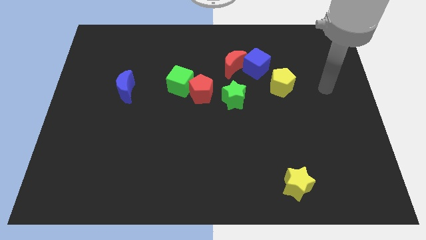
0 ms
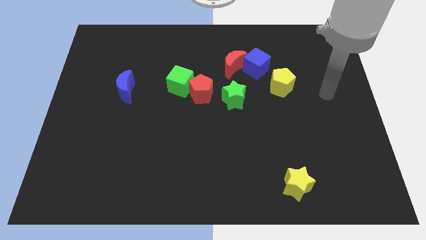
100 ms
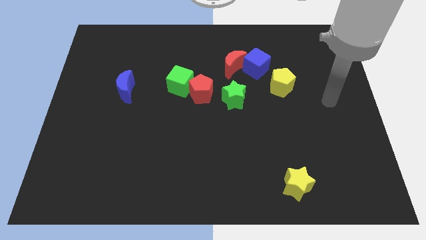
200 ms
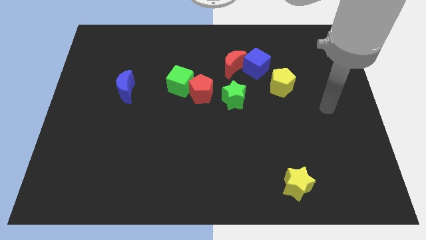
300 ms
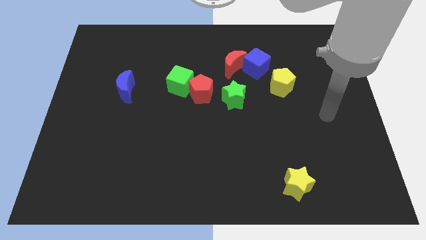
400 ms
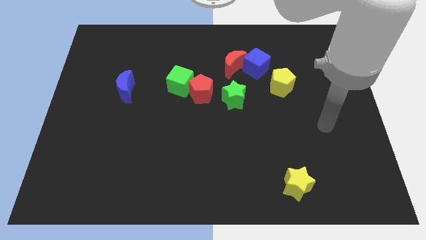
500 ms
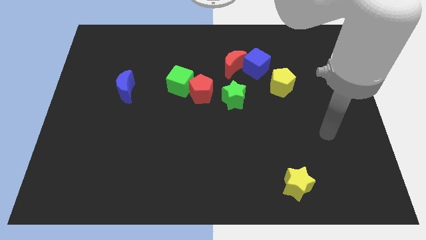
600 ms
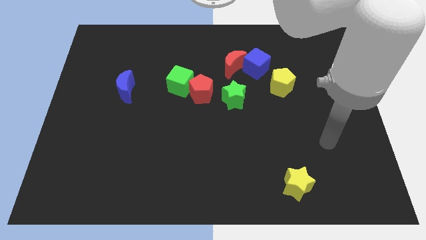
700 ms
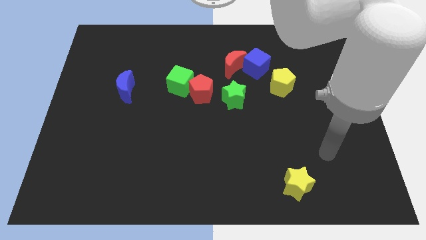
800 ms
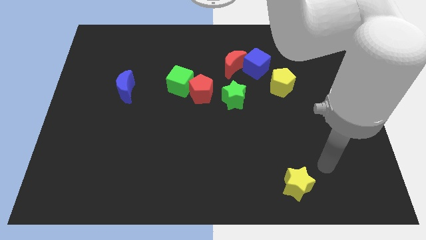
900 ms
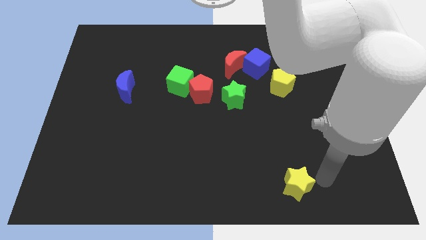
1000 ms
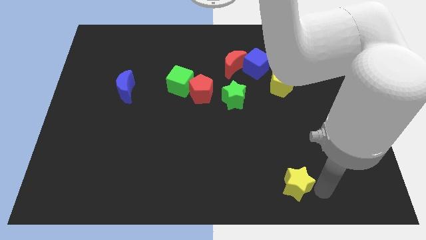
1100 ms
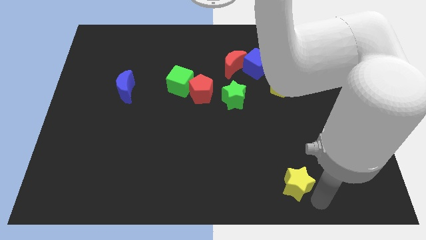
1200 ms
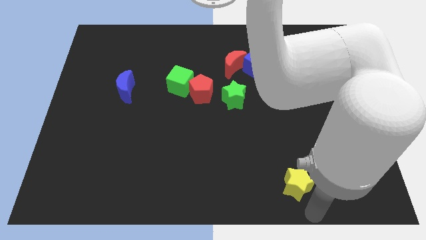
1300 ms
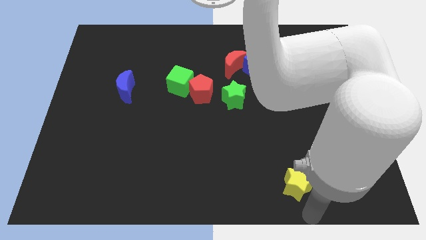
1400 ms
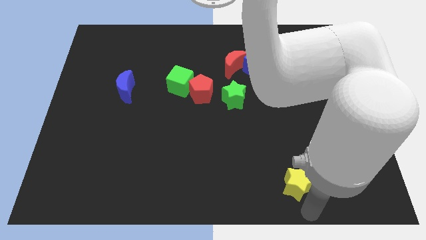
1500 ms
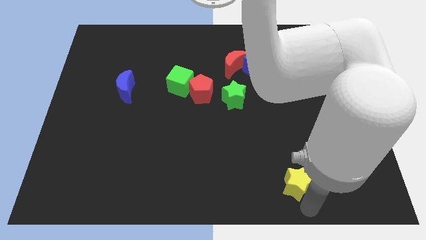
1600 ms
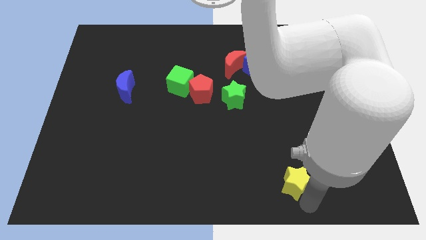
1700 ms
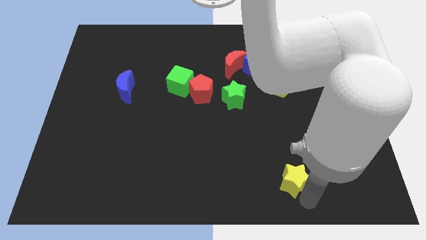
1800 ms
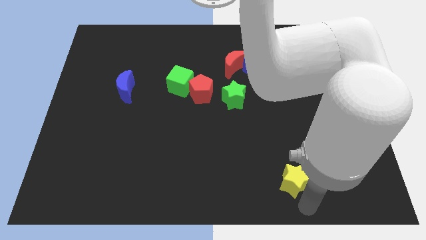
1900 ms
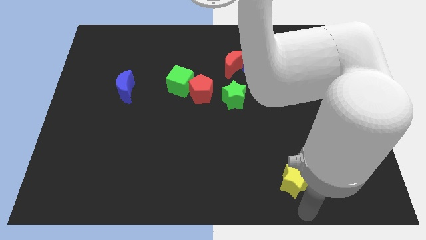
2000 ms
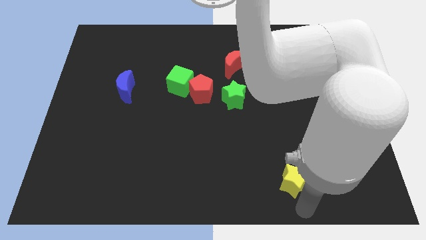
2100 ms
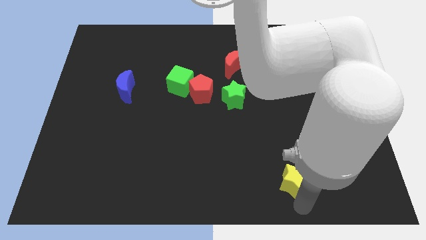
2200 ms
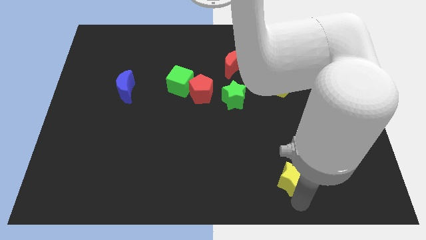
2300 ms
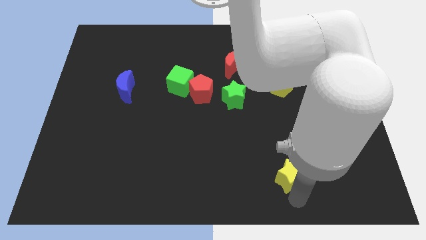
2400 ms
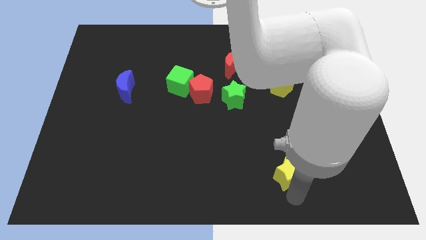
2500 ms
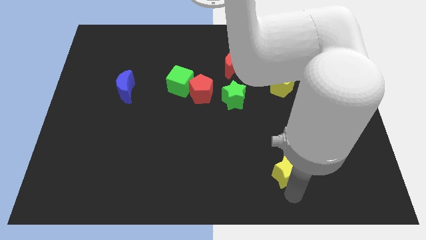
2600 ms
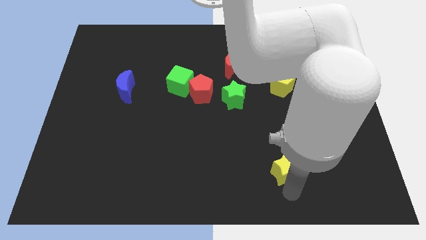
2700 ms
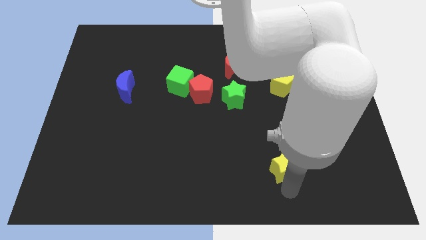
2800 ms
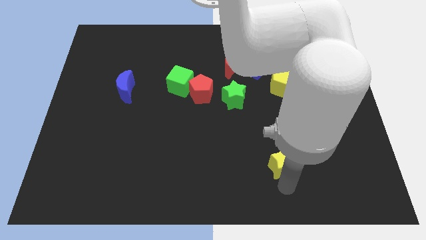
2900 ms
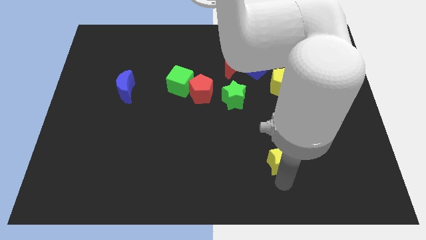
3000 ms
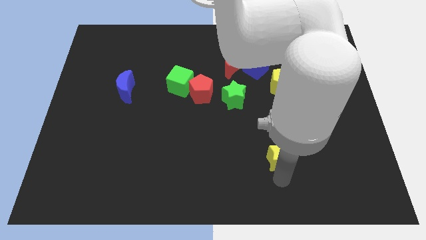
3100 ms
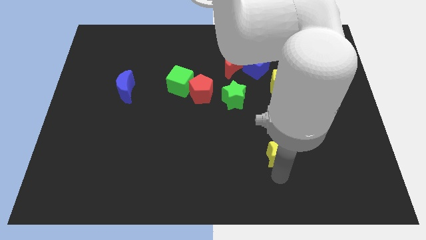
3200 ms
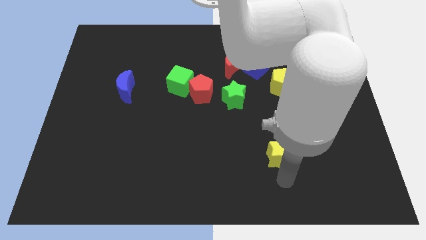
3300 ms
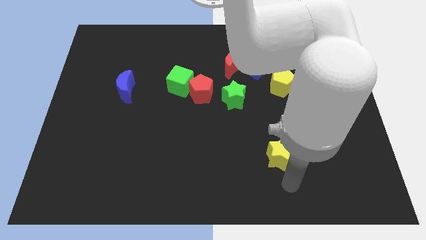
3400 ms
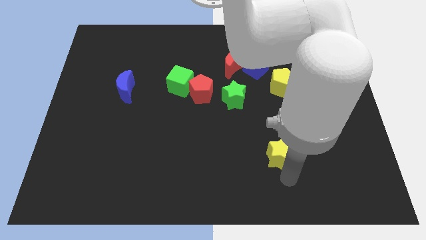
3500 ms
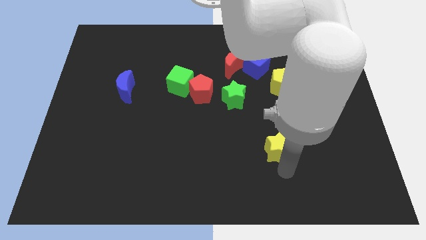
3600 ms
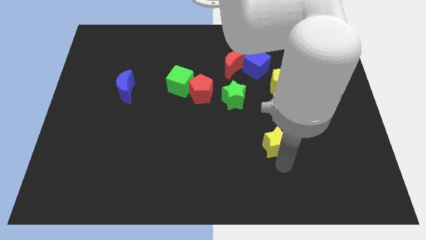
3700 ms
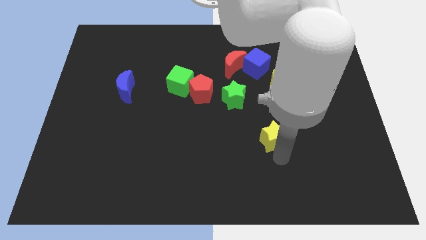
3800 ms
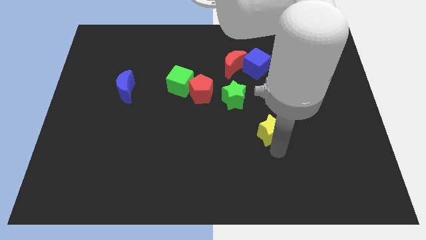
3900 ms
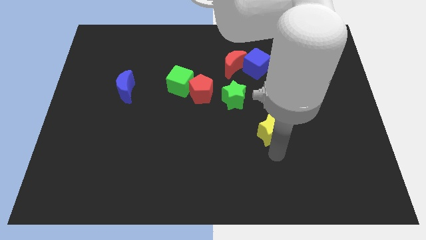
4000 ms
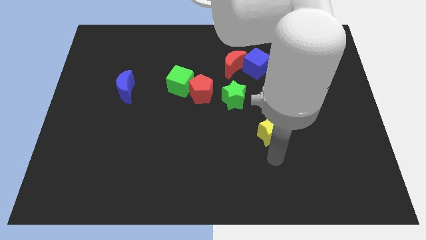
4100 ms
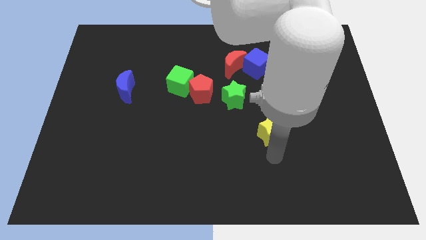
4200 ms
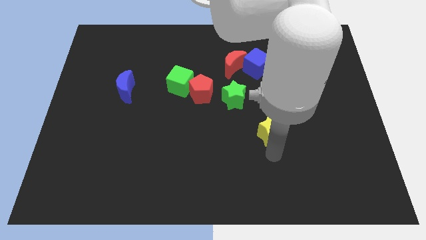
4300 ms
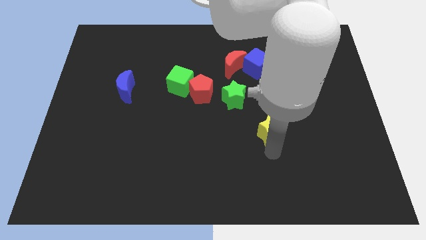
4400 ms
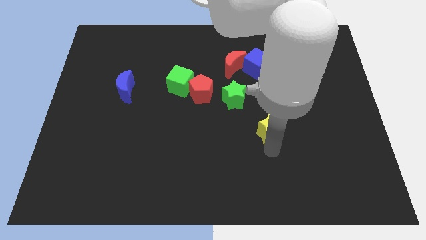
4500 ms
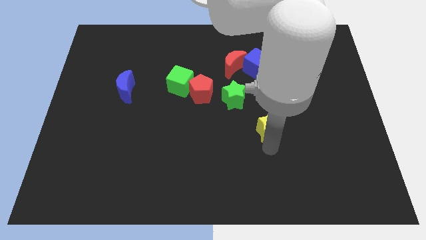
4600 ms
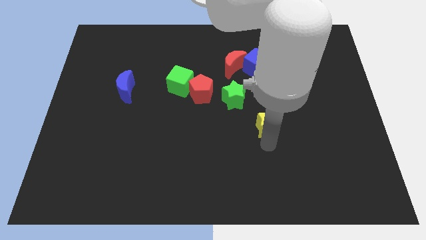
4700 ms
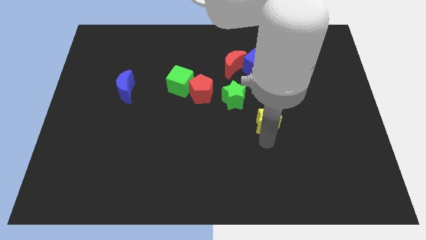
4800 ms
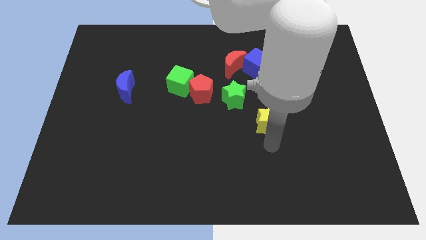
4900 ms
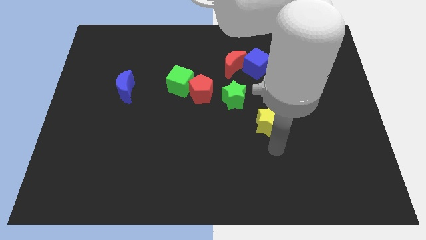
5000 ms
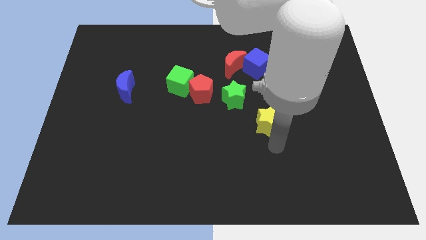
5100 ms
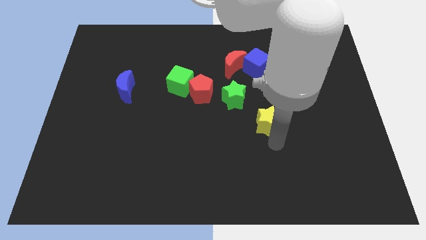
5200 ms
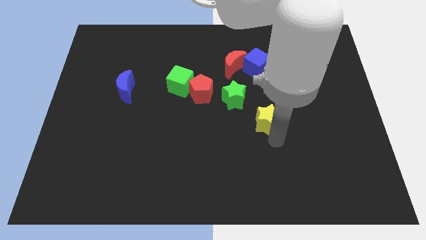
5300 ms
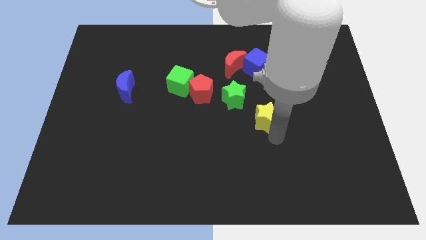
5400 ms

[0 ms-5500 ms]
move the yellow star to the bottom left side of the yellow pentagon

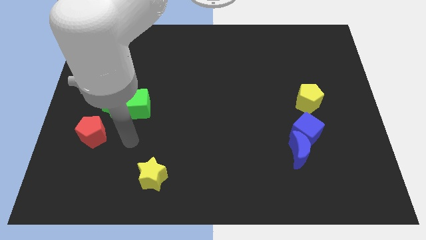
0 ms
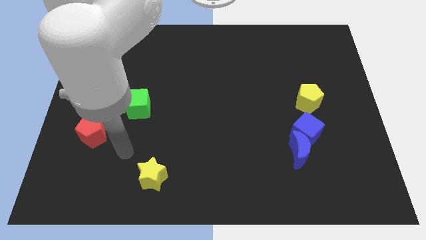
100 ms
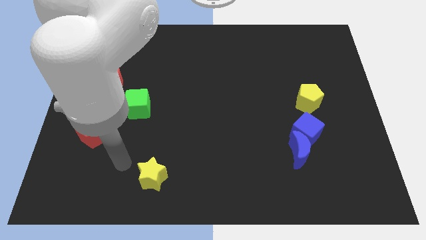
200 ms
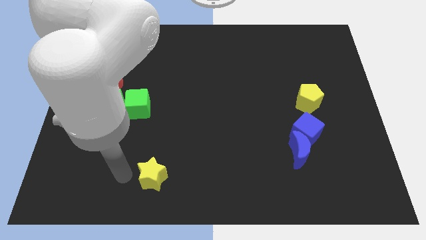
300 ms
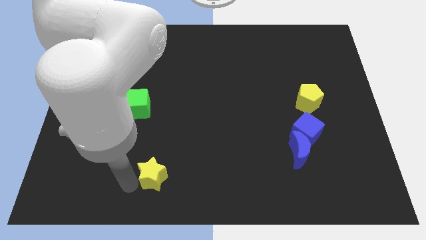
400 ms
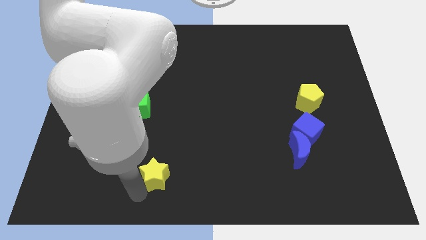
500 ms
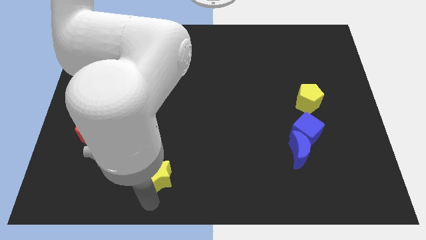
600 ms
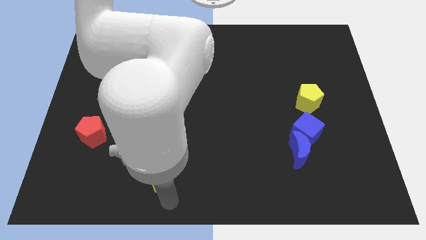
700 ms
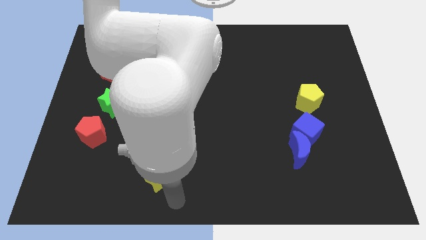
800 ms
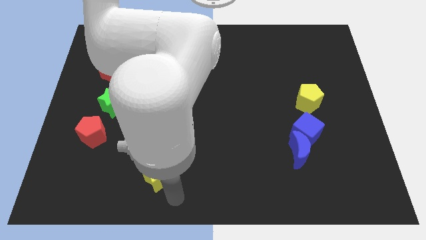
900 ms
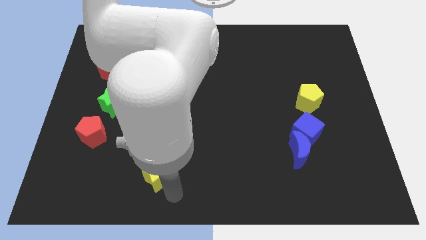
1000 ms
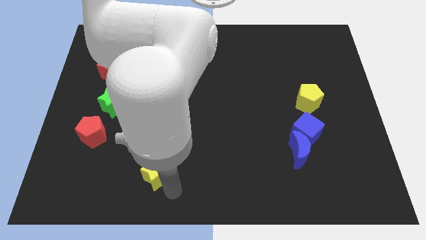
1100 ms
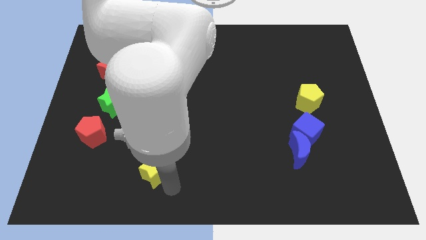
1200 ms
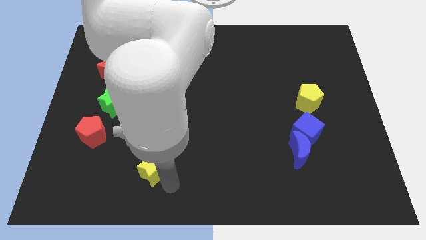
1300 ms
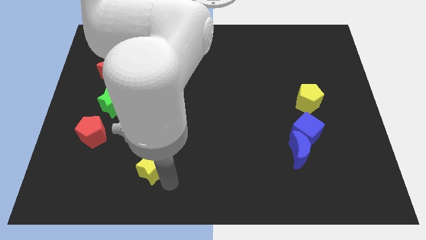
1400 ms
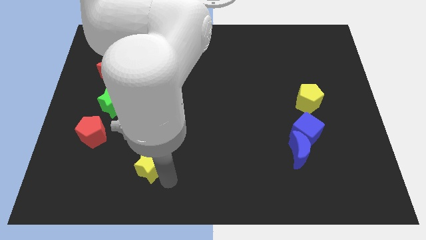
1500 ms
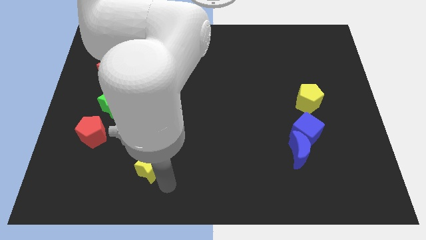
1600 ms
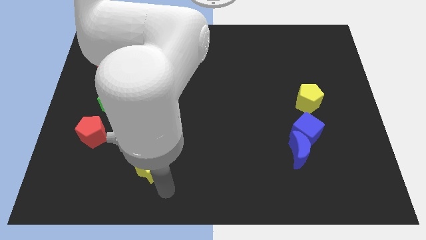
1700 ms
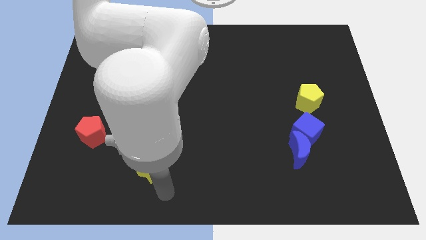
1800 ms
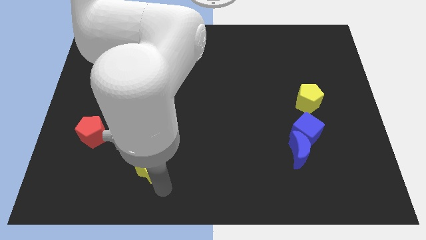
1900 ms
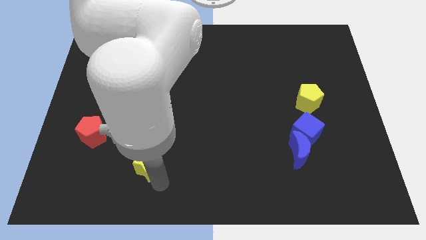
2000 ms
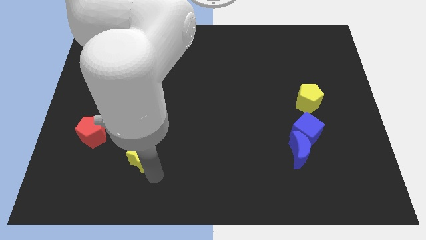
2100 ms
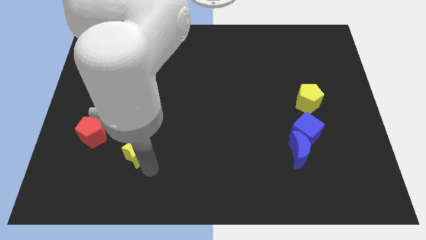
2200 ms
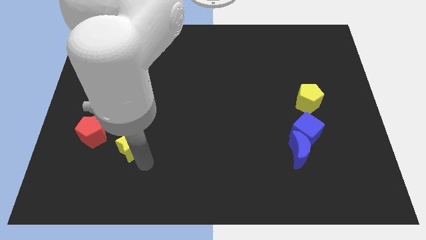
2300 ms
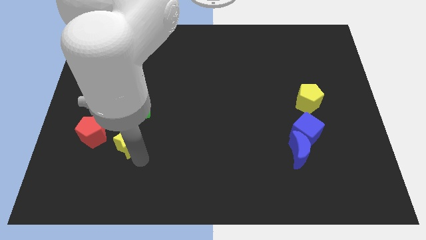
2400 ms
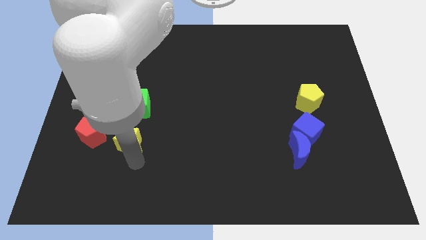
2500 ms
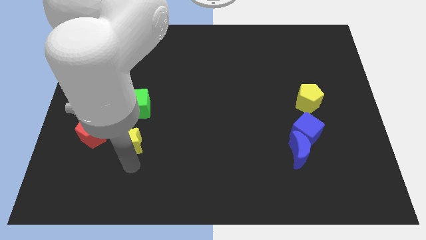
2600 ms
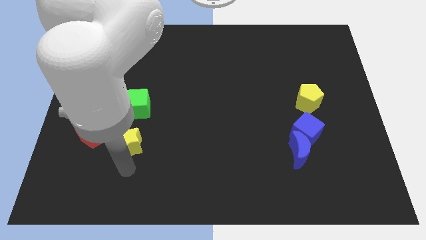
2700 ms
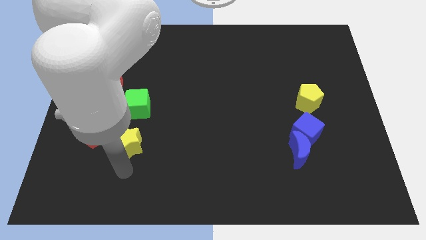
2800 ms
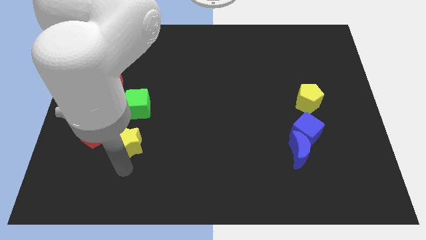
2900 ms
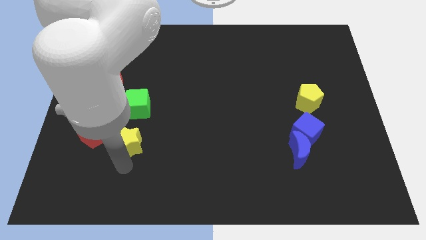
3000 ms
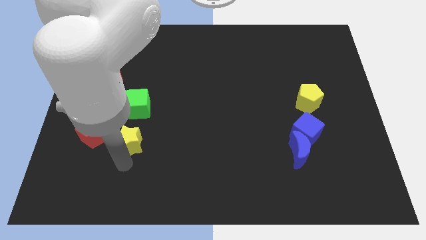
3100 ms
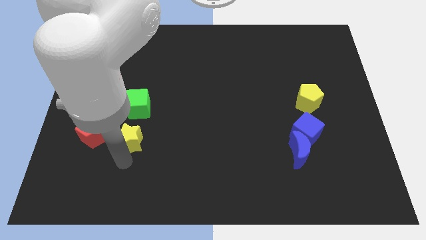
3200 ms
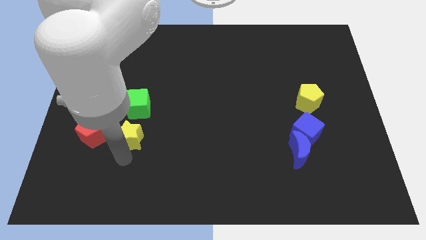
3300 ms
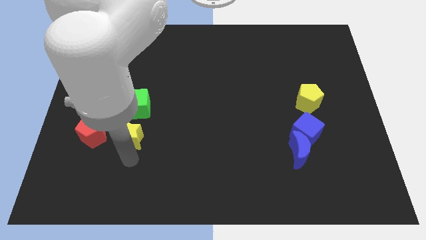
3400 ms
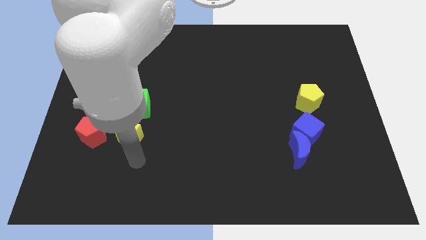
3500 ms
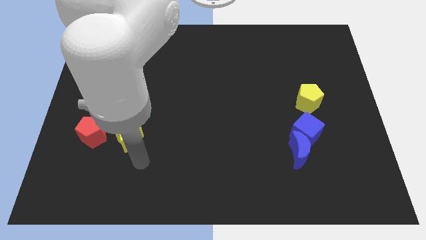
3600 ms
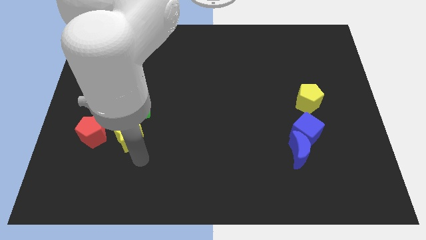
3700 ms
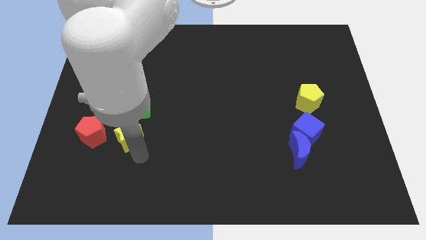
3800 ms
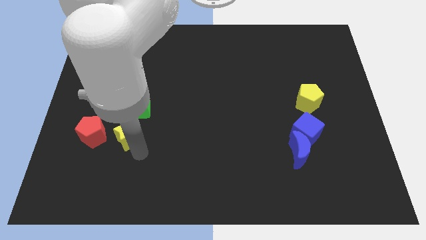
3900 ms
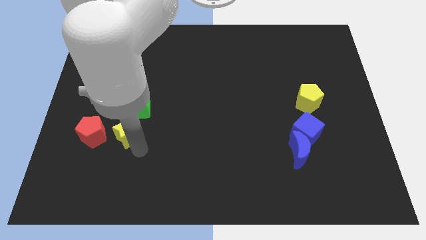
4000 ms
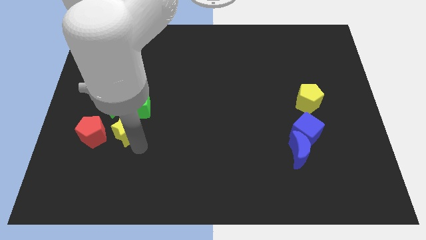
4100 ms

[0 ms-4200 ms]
put the yellow star to the top right side of the red pentagon
